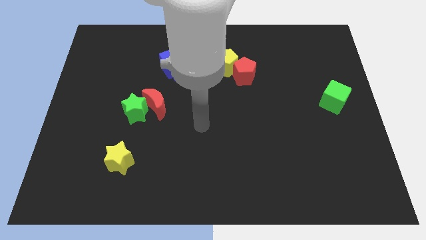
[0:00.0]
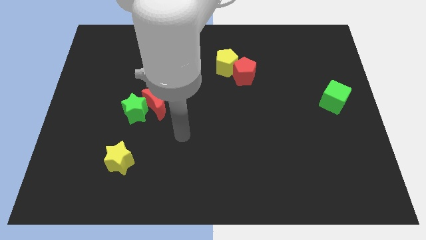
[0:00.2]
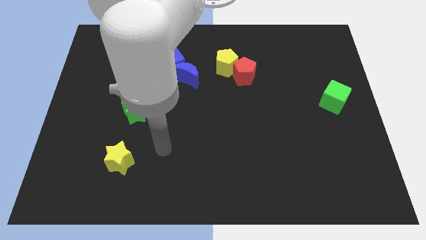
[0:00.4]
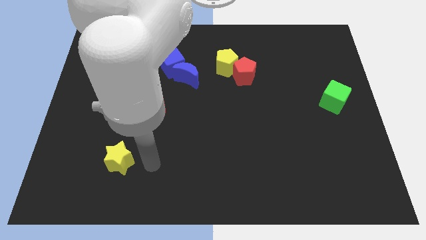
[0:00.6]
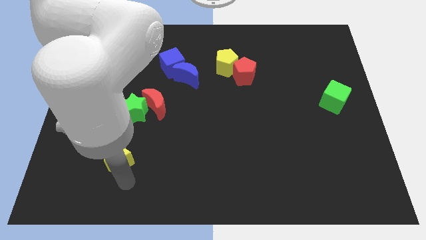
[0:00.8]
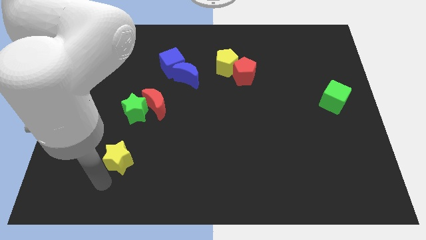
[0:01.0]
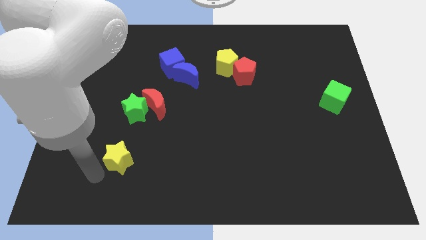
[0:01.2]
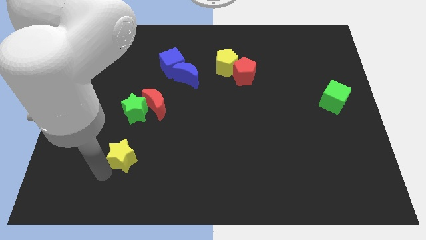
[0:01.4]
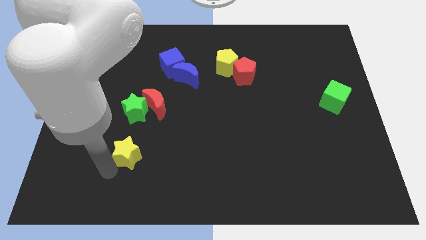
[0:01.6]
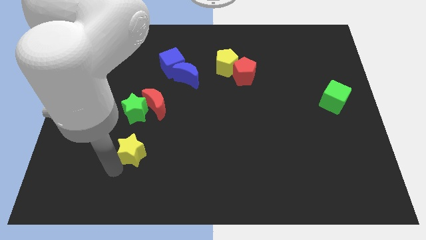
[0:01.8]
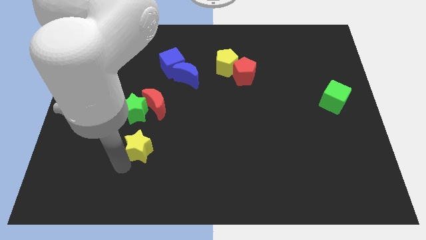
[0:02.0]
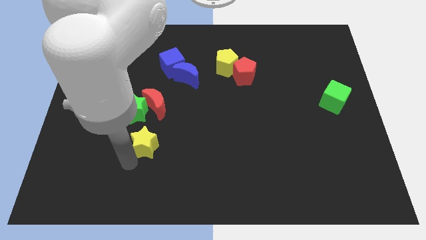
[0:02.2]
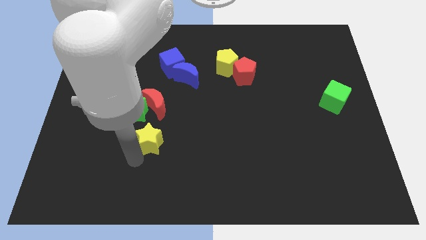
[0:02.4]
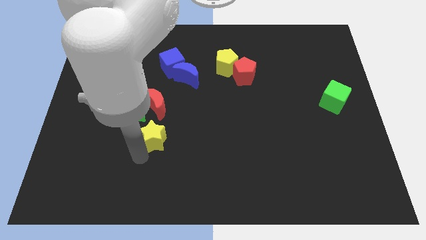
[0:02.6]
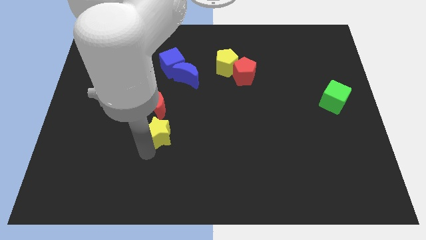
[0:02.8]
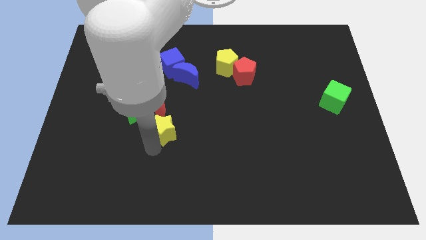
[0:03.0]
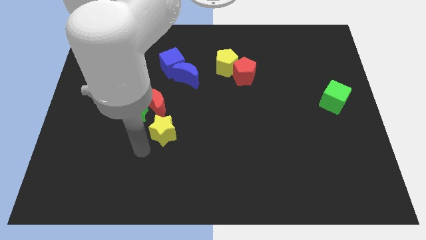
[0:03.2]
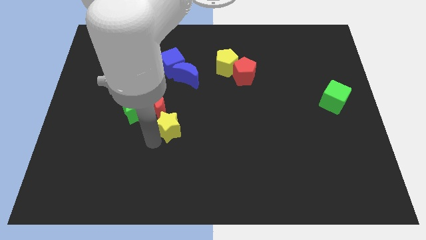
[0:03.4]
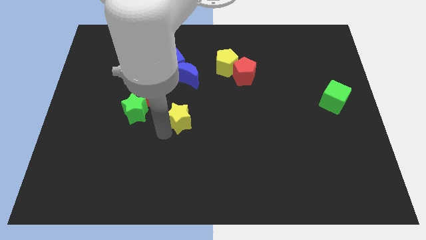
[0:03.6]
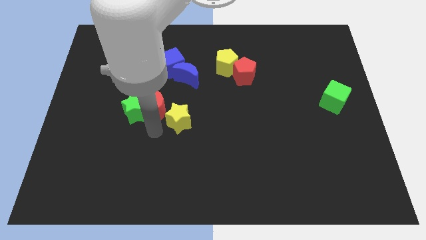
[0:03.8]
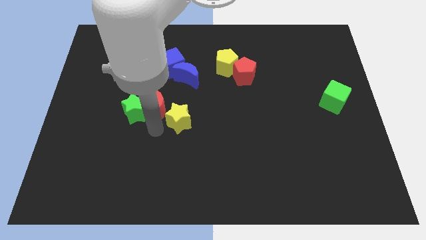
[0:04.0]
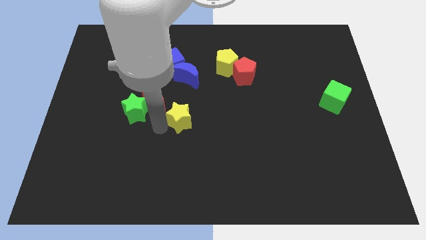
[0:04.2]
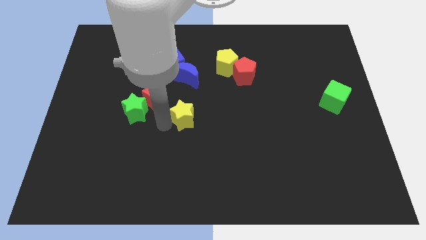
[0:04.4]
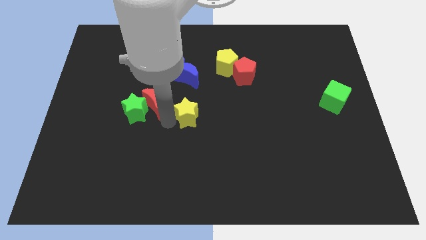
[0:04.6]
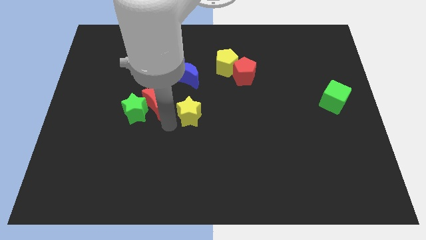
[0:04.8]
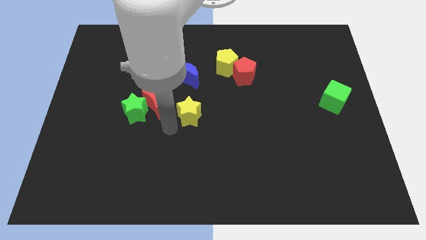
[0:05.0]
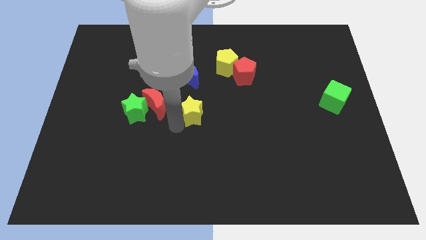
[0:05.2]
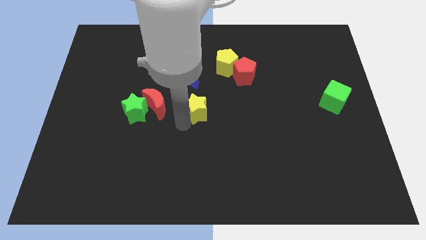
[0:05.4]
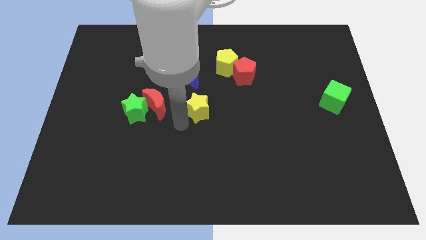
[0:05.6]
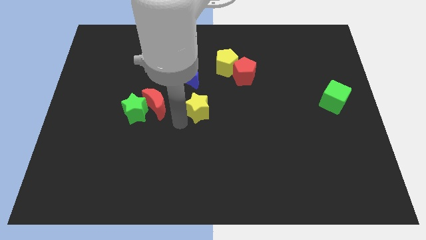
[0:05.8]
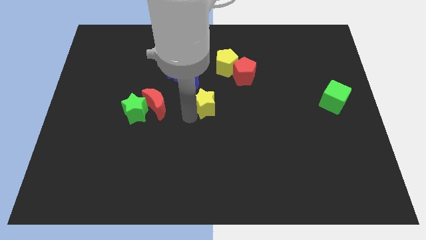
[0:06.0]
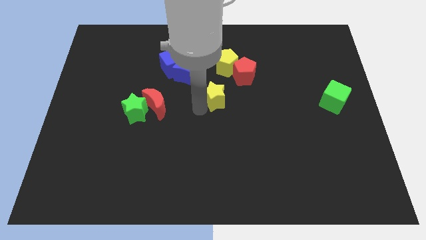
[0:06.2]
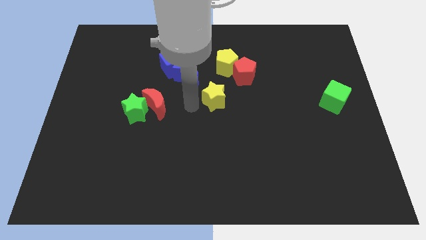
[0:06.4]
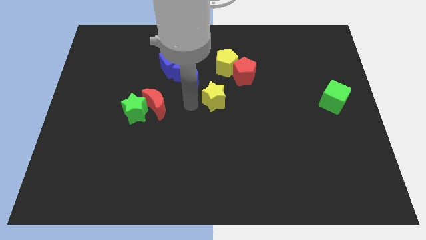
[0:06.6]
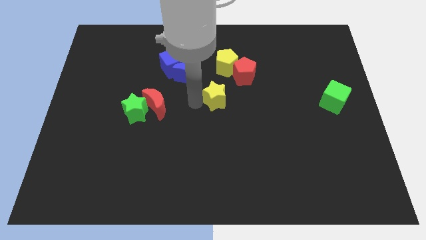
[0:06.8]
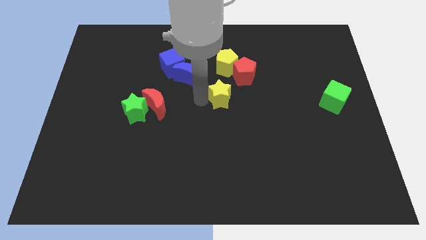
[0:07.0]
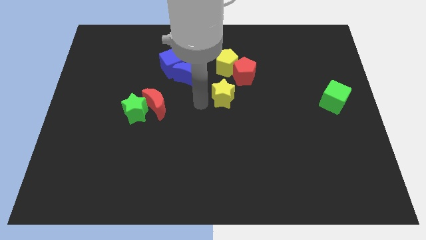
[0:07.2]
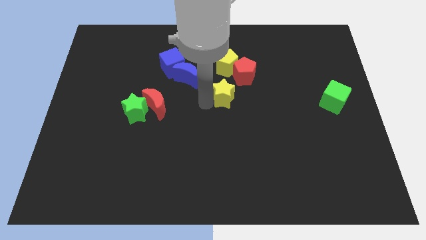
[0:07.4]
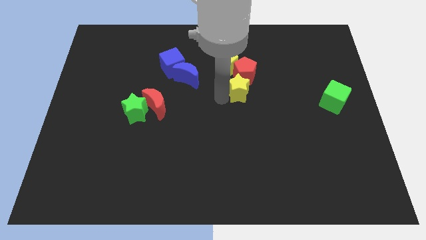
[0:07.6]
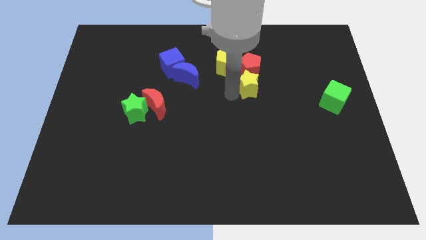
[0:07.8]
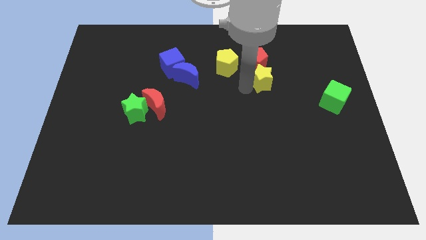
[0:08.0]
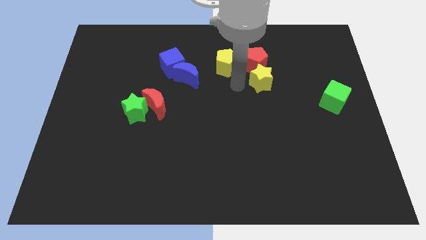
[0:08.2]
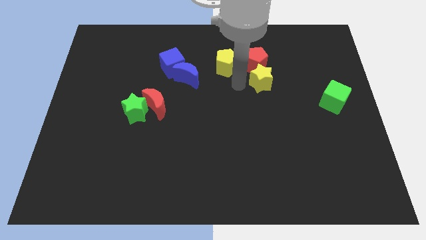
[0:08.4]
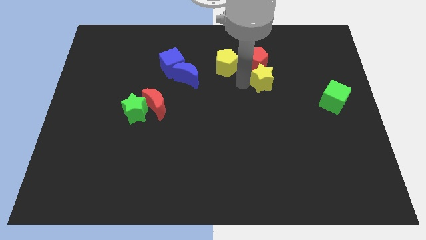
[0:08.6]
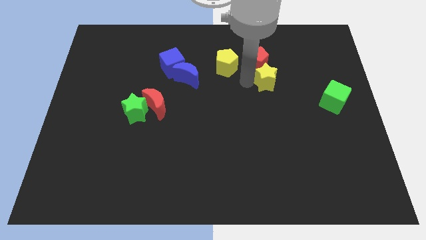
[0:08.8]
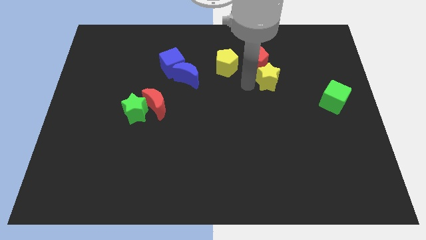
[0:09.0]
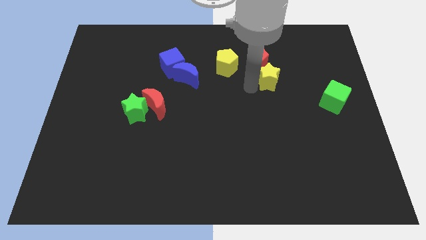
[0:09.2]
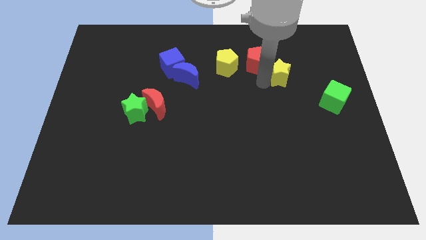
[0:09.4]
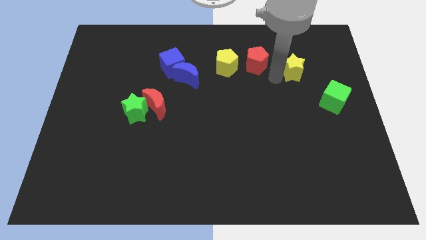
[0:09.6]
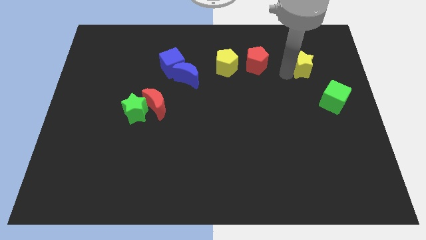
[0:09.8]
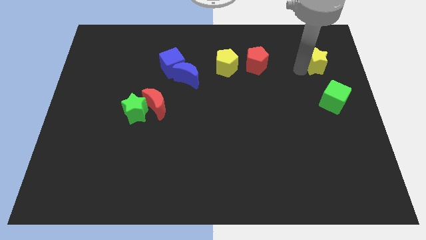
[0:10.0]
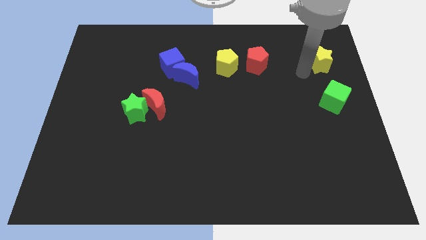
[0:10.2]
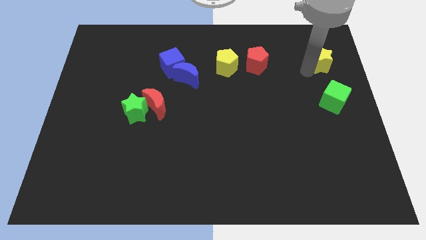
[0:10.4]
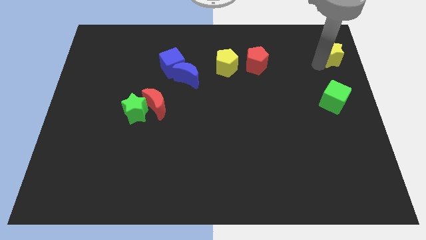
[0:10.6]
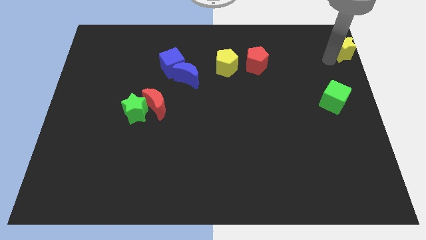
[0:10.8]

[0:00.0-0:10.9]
put the yellow star to the upper right corner
